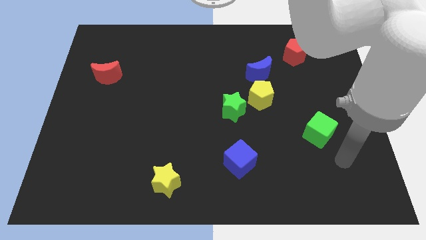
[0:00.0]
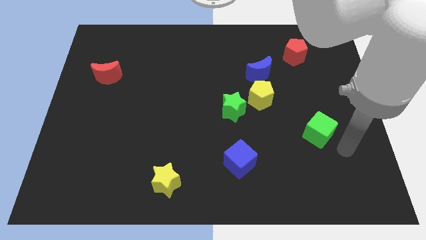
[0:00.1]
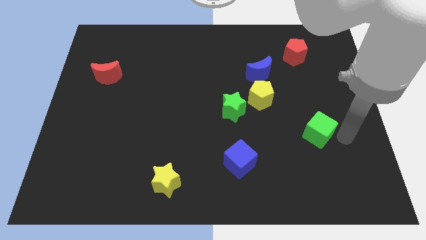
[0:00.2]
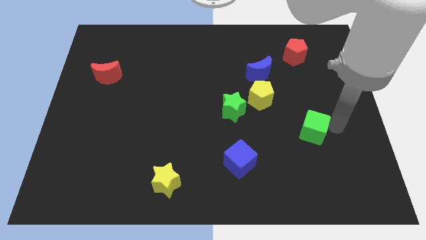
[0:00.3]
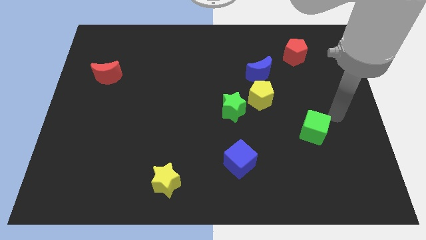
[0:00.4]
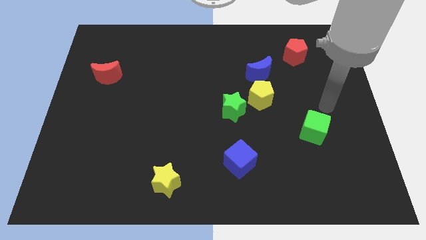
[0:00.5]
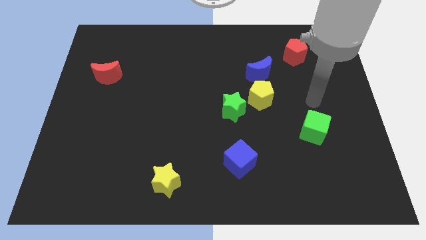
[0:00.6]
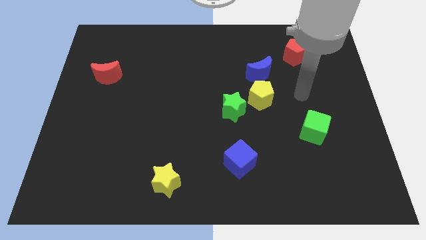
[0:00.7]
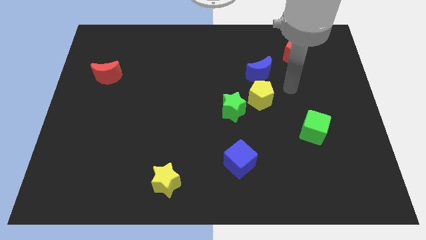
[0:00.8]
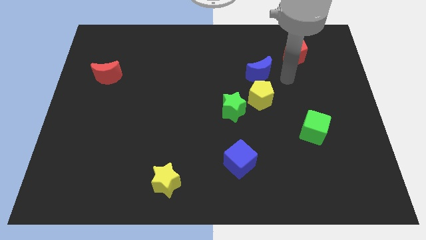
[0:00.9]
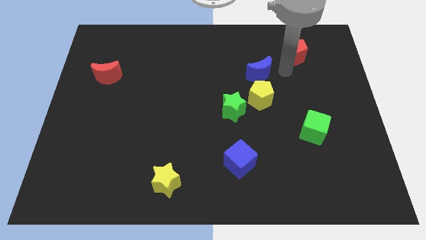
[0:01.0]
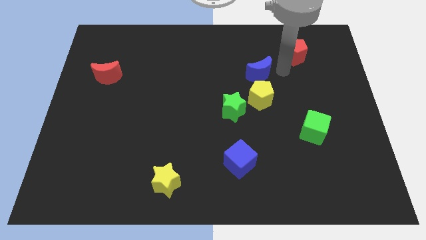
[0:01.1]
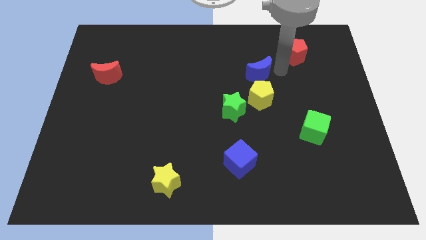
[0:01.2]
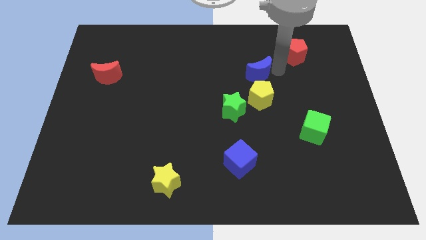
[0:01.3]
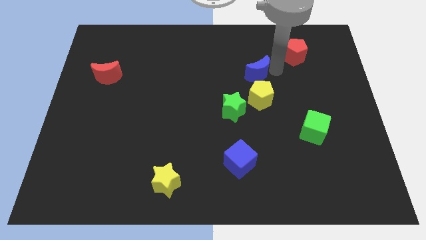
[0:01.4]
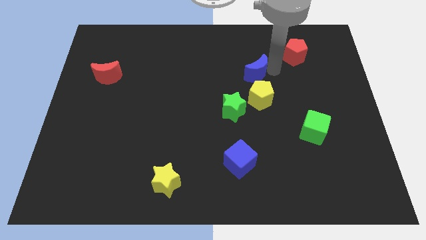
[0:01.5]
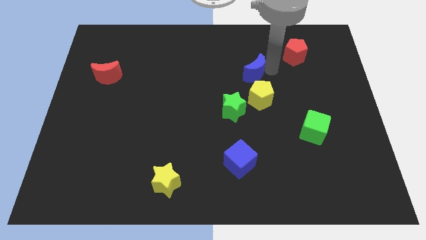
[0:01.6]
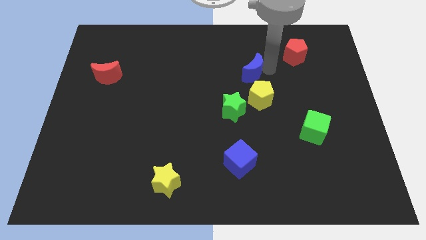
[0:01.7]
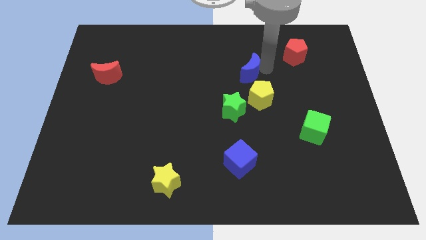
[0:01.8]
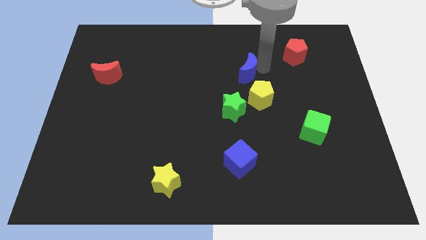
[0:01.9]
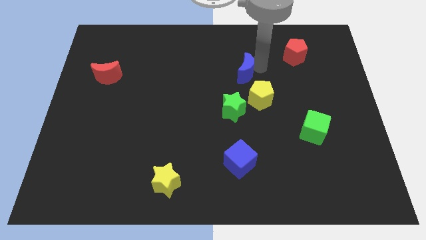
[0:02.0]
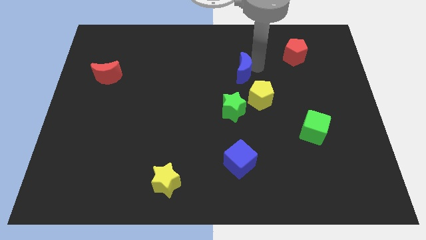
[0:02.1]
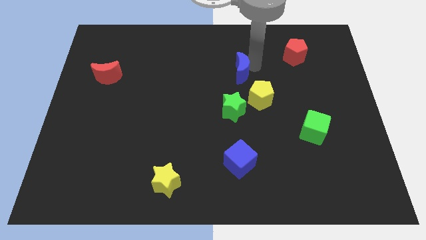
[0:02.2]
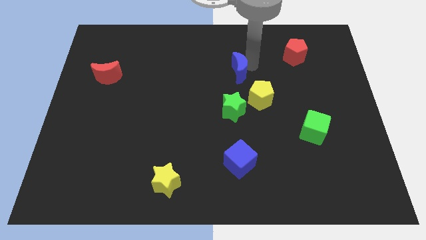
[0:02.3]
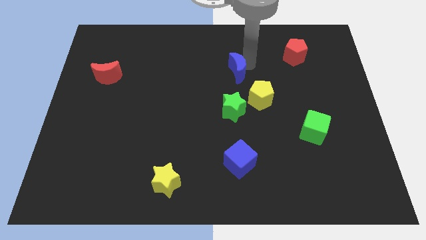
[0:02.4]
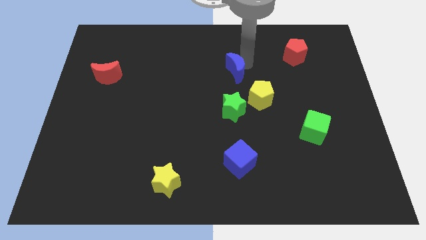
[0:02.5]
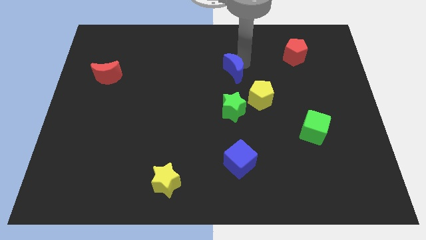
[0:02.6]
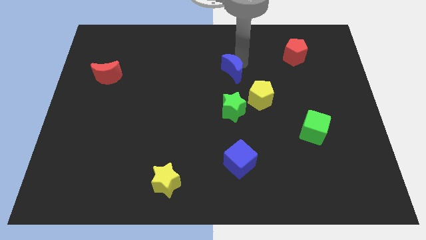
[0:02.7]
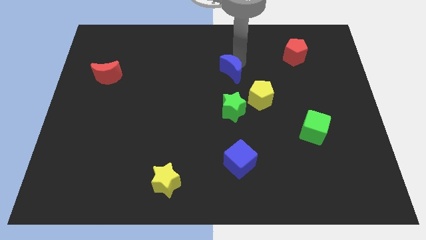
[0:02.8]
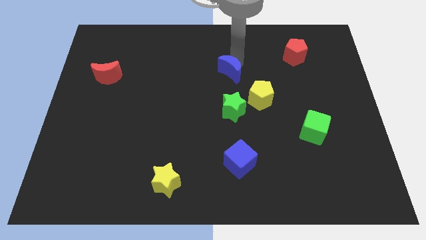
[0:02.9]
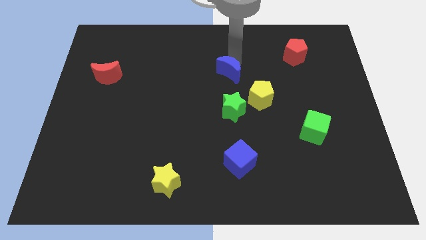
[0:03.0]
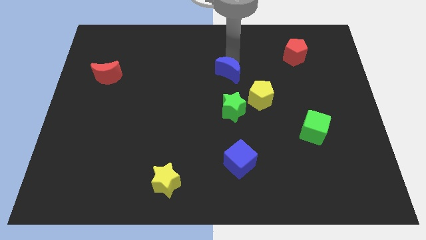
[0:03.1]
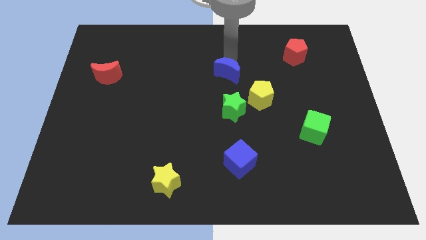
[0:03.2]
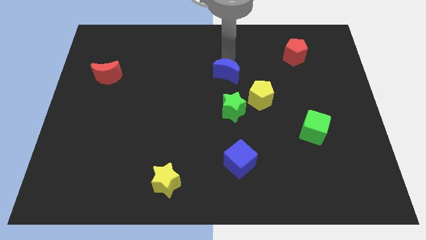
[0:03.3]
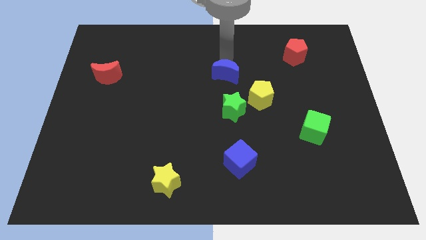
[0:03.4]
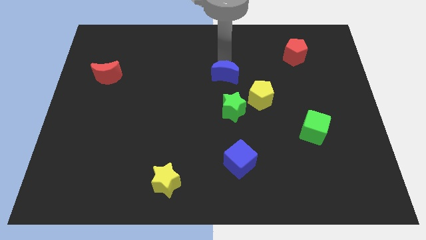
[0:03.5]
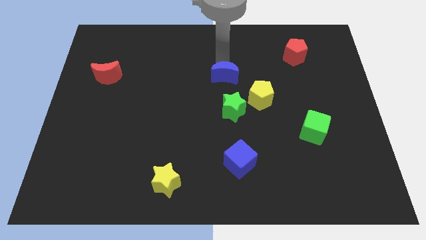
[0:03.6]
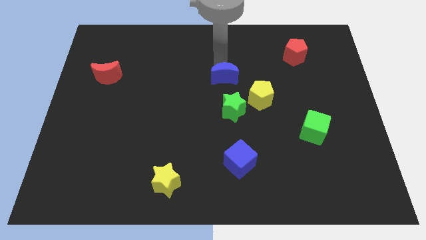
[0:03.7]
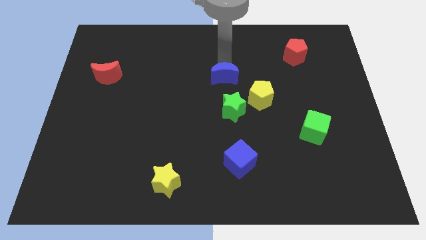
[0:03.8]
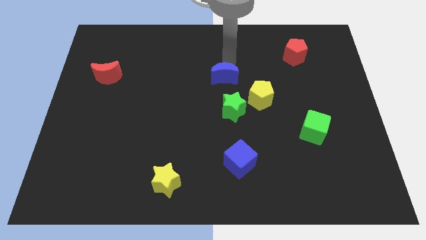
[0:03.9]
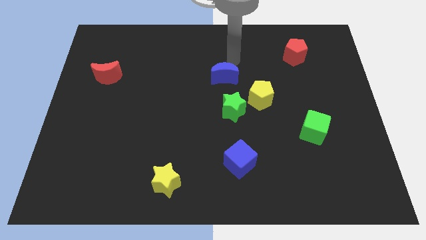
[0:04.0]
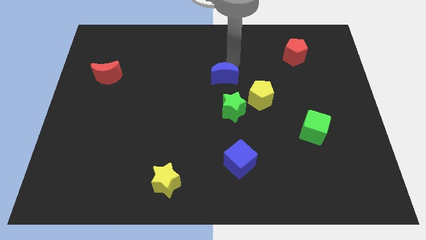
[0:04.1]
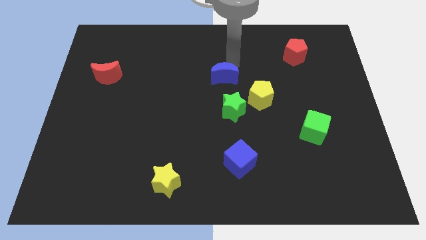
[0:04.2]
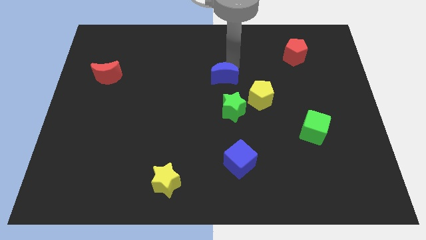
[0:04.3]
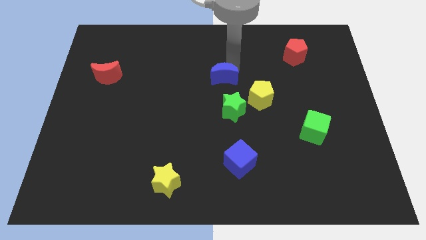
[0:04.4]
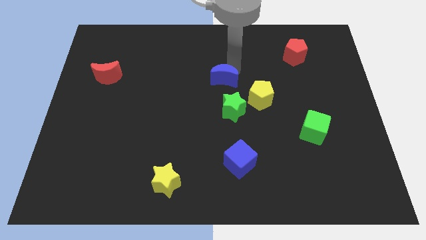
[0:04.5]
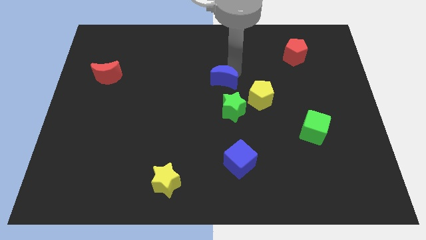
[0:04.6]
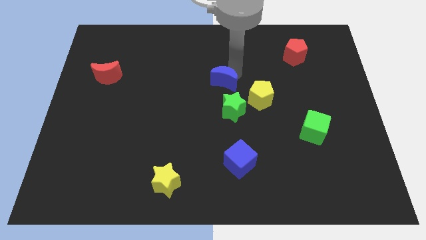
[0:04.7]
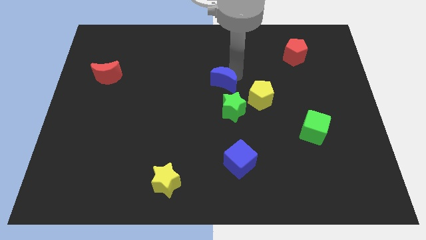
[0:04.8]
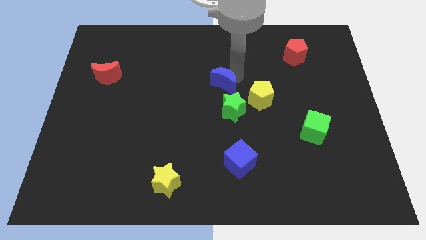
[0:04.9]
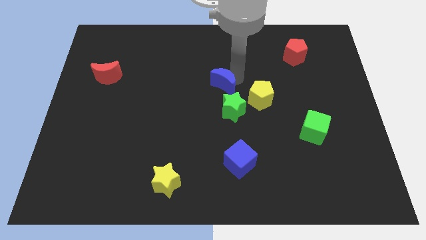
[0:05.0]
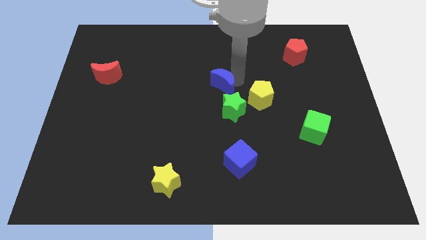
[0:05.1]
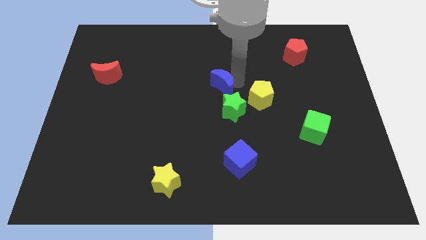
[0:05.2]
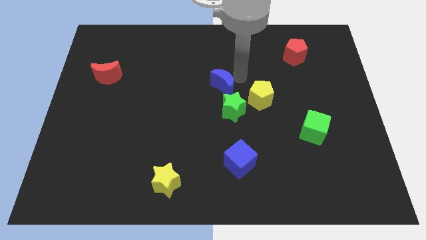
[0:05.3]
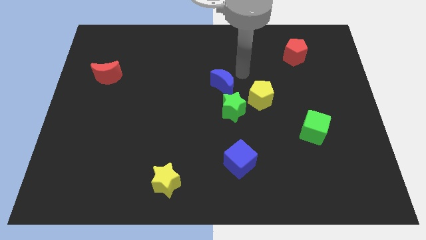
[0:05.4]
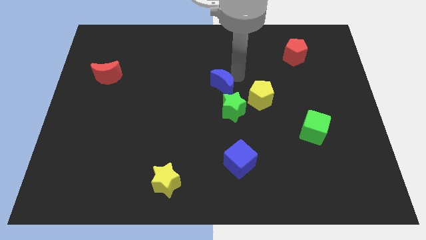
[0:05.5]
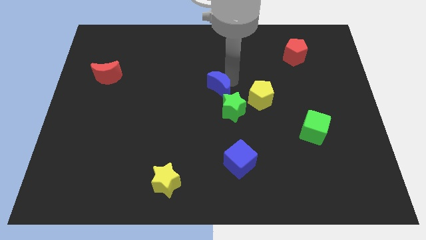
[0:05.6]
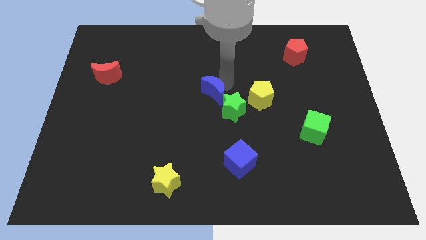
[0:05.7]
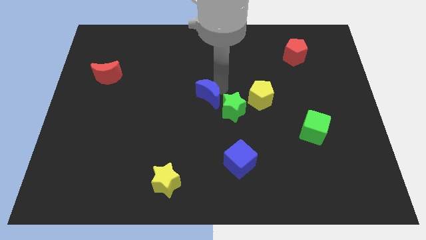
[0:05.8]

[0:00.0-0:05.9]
slide the blue moon just left of the green star
